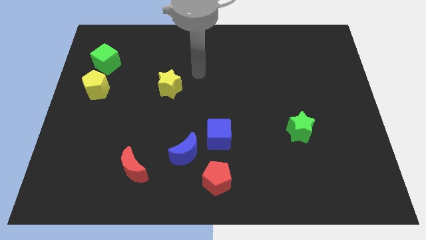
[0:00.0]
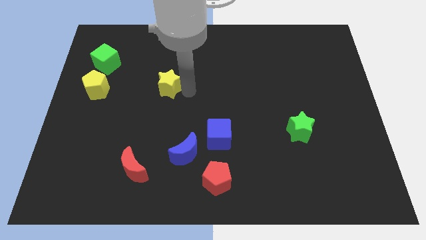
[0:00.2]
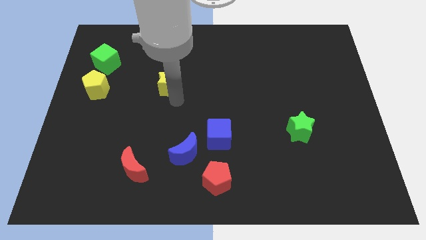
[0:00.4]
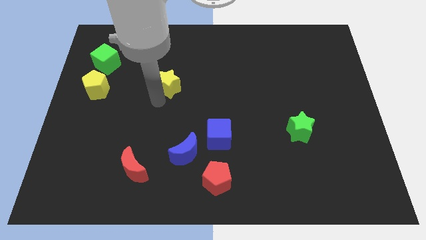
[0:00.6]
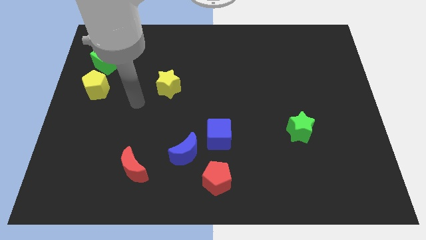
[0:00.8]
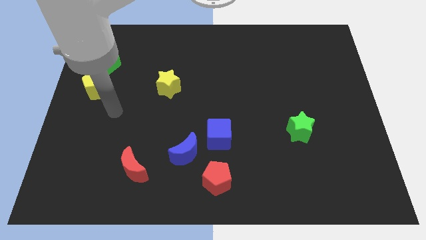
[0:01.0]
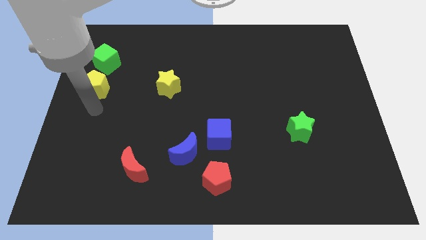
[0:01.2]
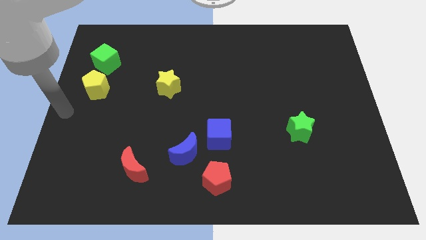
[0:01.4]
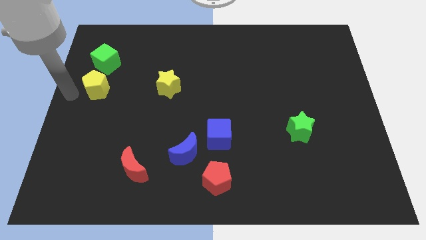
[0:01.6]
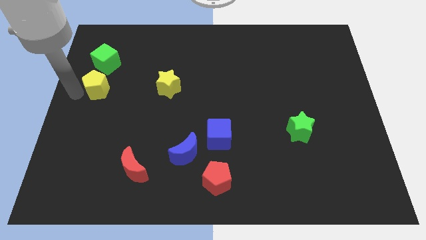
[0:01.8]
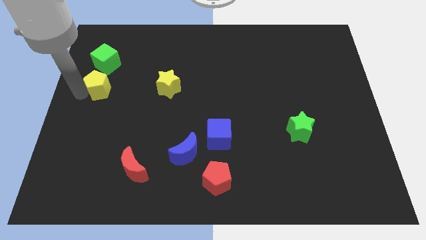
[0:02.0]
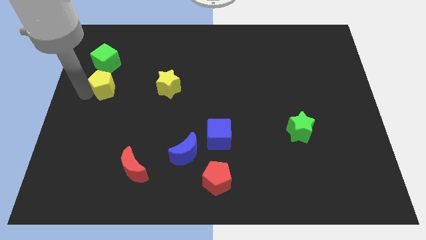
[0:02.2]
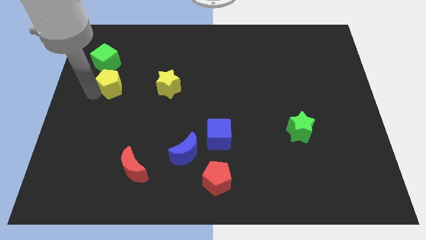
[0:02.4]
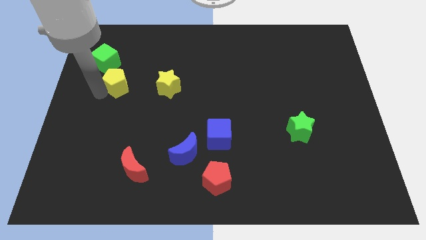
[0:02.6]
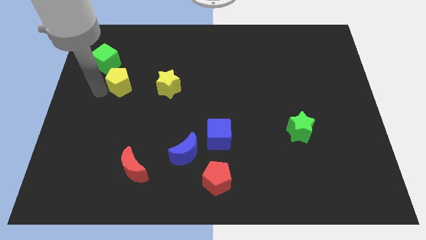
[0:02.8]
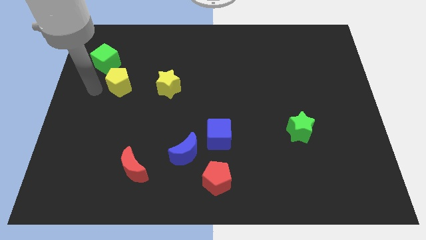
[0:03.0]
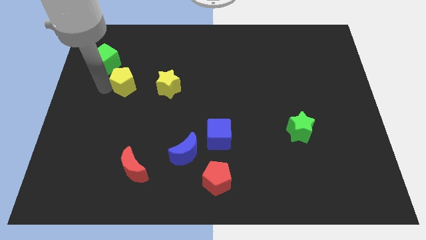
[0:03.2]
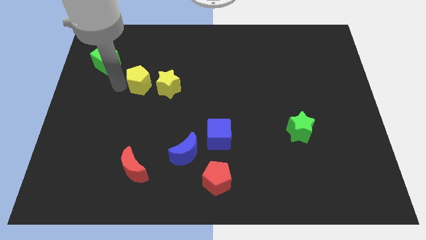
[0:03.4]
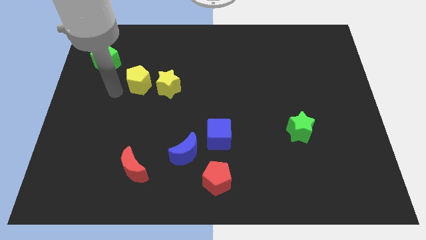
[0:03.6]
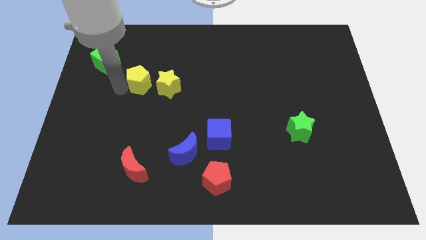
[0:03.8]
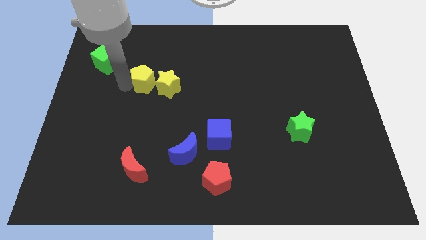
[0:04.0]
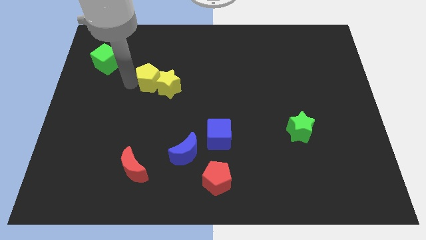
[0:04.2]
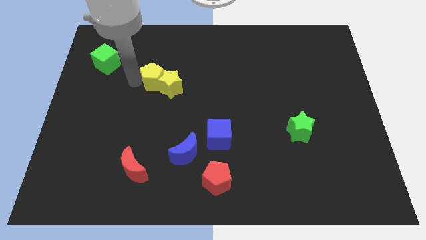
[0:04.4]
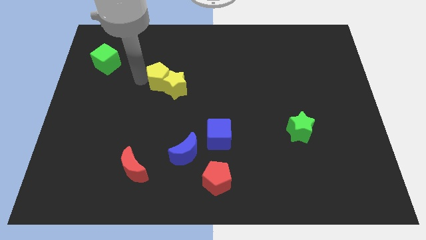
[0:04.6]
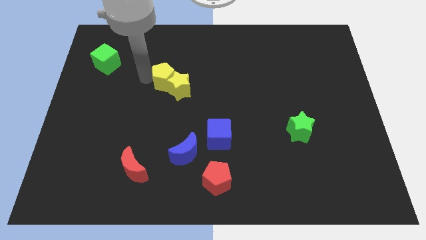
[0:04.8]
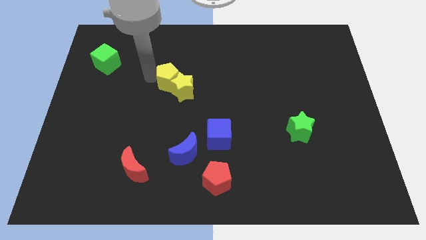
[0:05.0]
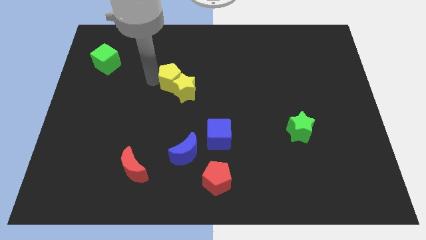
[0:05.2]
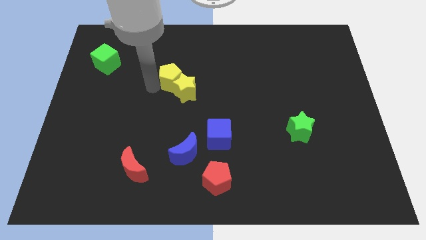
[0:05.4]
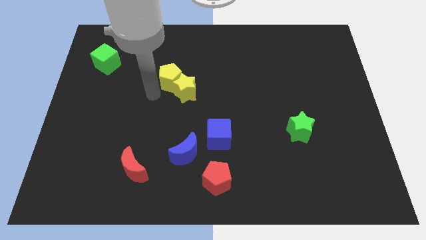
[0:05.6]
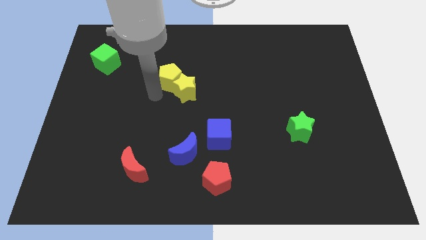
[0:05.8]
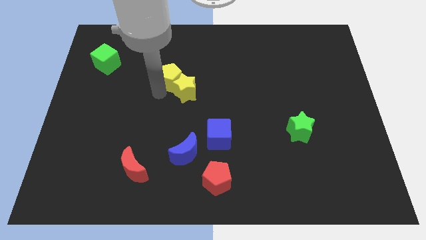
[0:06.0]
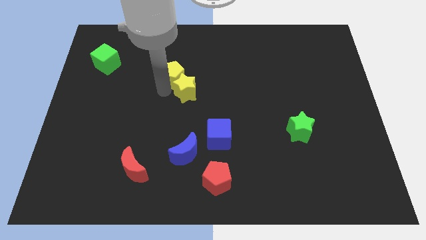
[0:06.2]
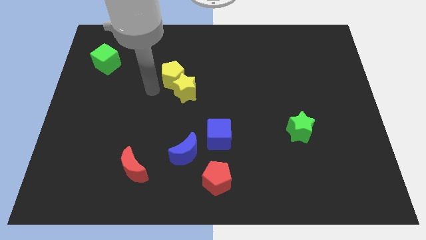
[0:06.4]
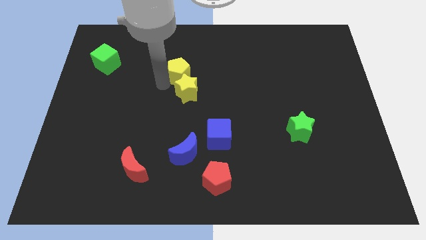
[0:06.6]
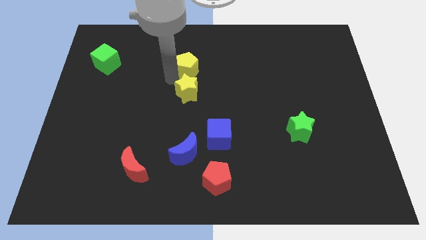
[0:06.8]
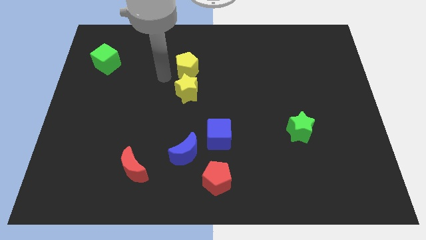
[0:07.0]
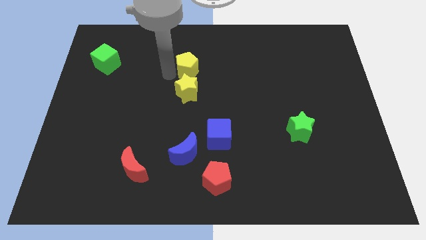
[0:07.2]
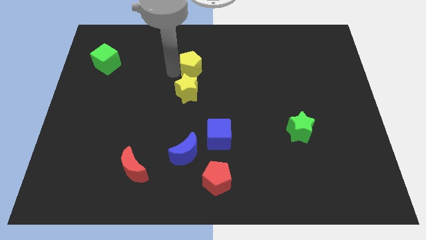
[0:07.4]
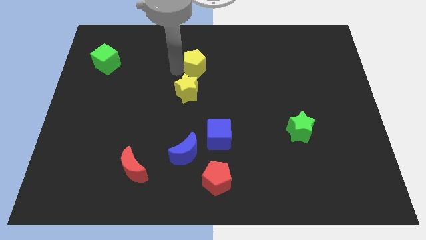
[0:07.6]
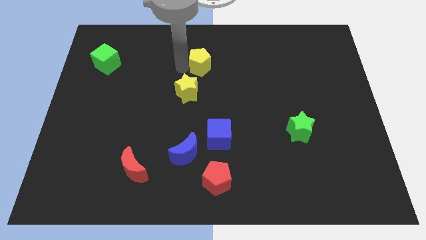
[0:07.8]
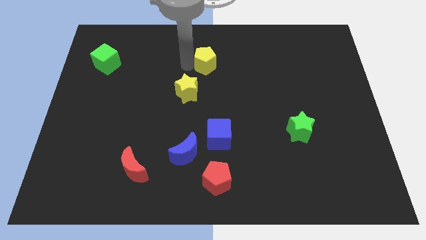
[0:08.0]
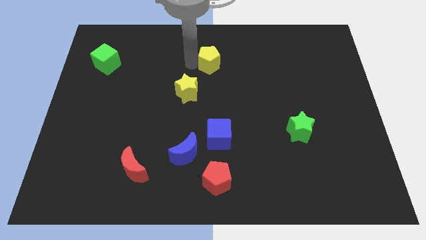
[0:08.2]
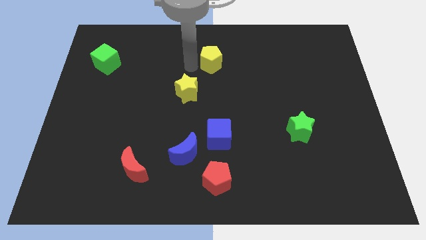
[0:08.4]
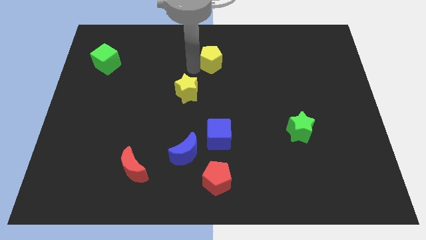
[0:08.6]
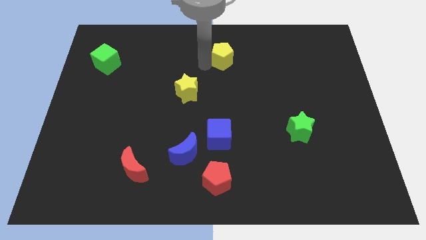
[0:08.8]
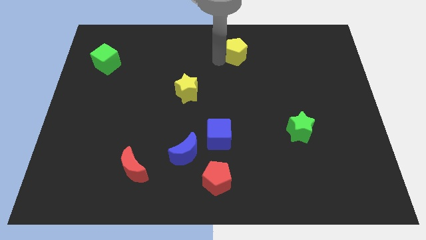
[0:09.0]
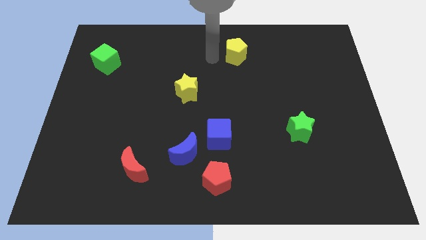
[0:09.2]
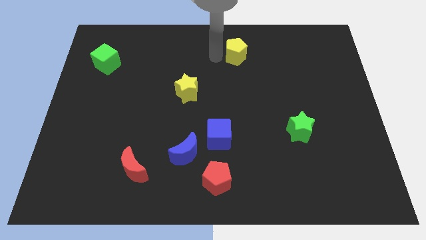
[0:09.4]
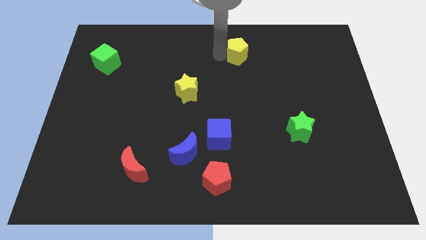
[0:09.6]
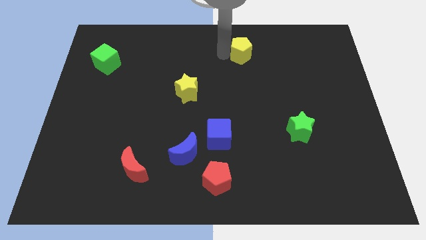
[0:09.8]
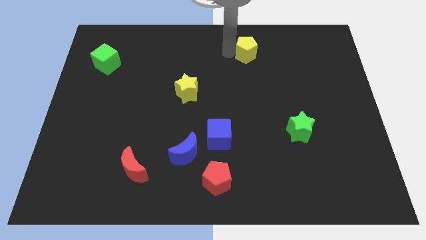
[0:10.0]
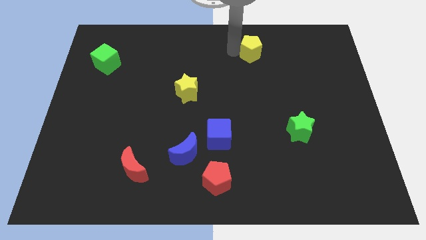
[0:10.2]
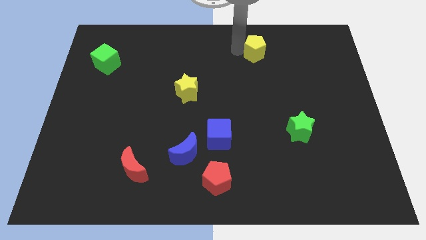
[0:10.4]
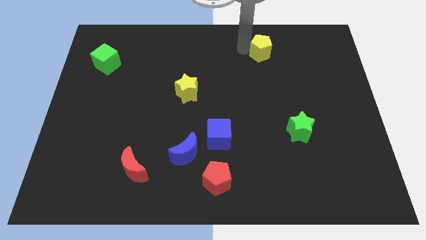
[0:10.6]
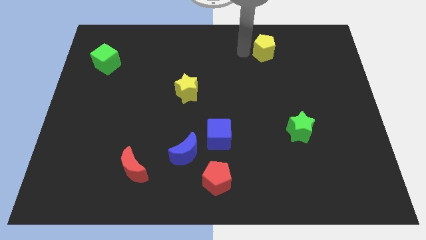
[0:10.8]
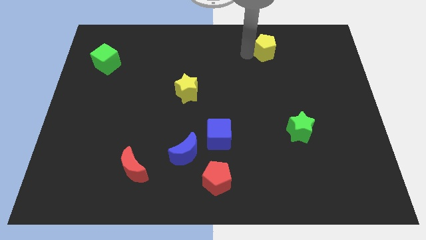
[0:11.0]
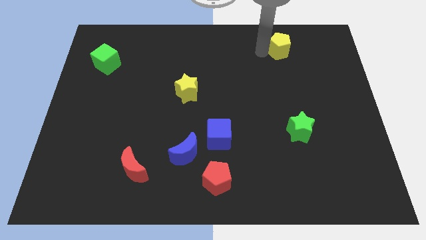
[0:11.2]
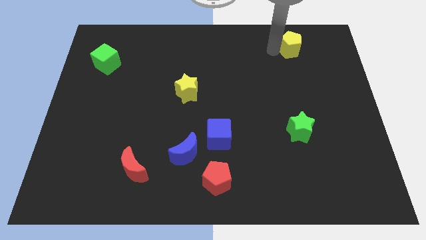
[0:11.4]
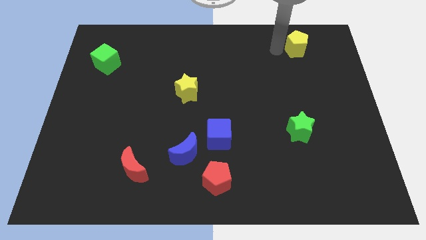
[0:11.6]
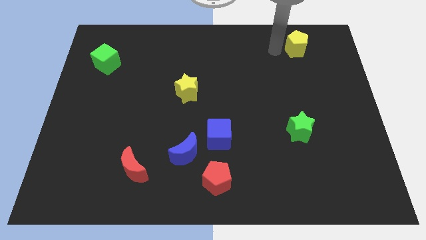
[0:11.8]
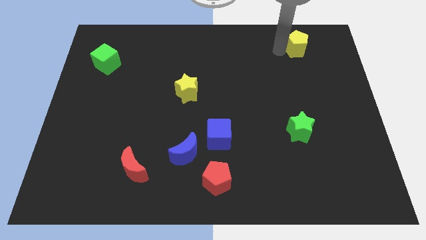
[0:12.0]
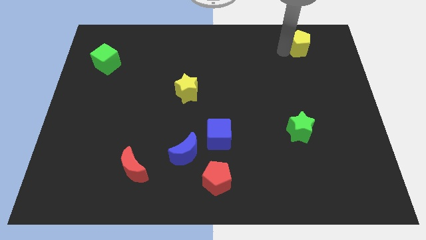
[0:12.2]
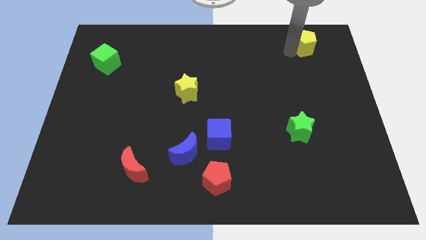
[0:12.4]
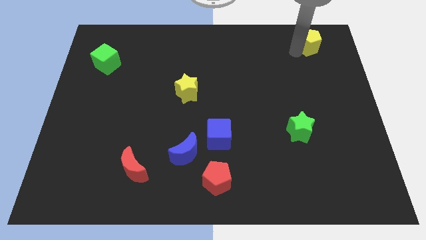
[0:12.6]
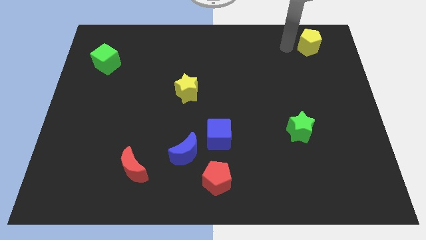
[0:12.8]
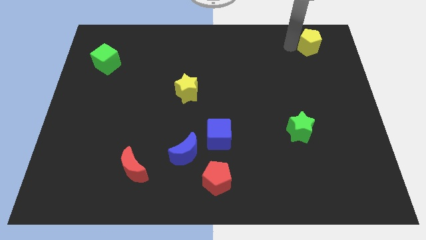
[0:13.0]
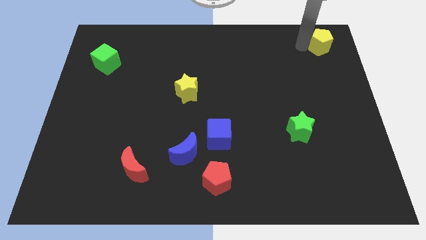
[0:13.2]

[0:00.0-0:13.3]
push the yellow pentagon to the top right corner

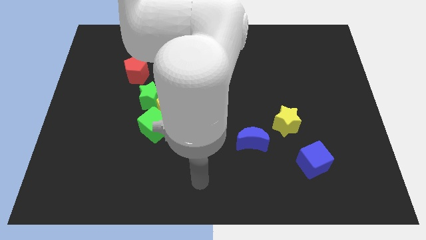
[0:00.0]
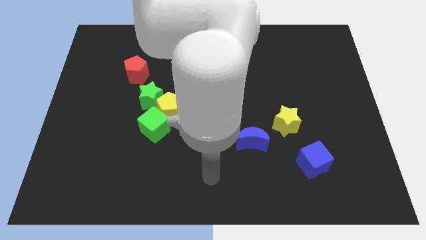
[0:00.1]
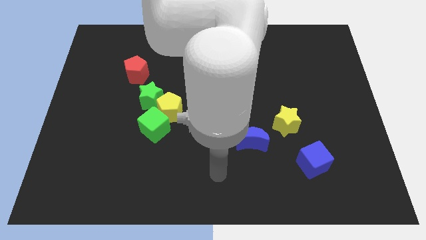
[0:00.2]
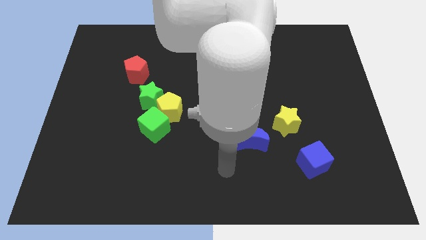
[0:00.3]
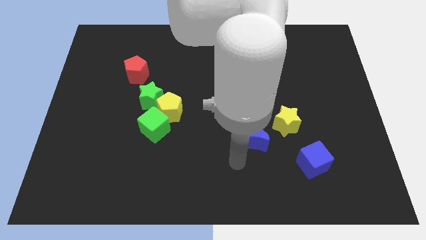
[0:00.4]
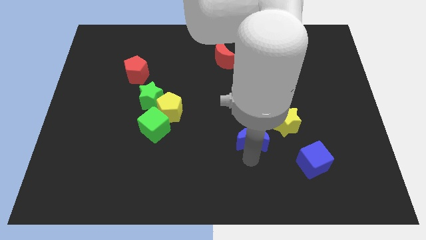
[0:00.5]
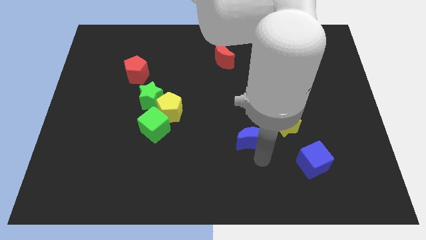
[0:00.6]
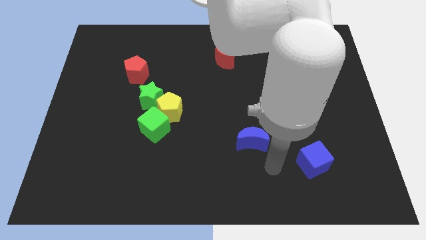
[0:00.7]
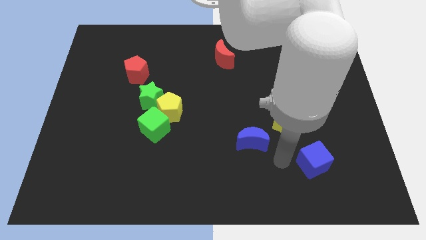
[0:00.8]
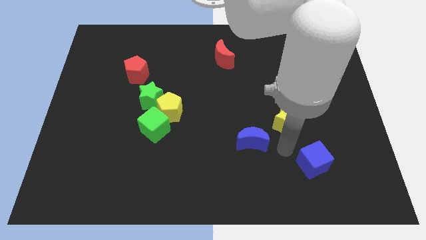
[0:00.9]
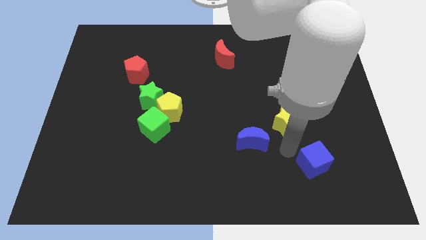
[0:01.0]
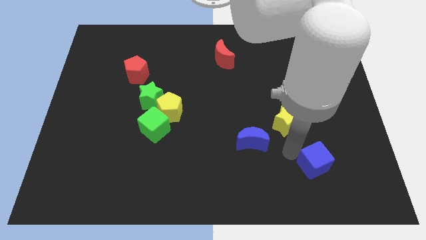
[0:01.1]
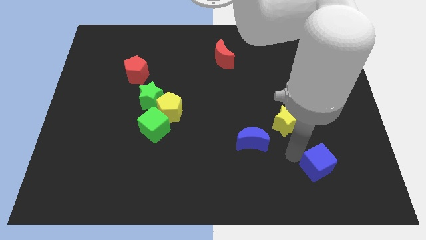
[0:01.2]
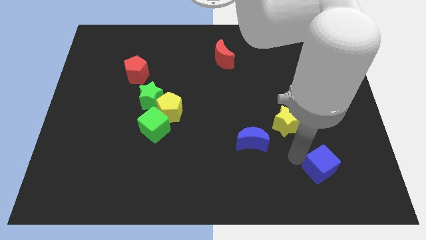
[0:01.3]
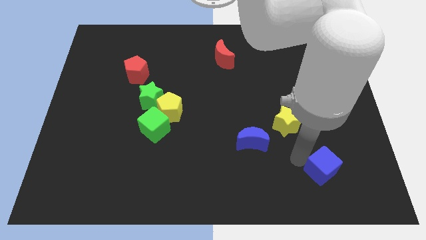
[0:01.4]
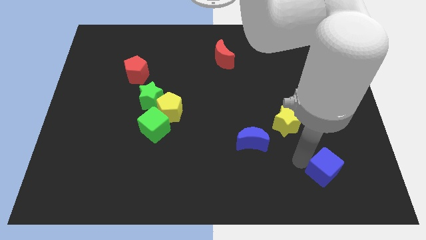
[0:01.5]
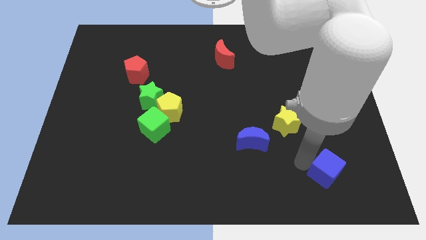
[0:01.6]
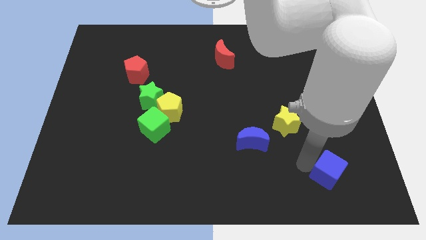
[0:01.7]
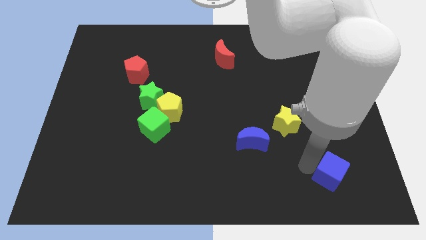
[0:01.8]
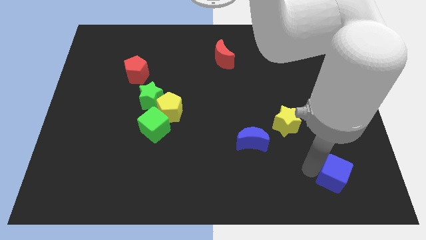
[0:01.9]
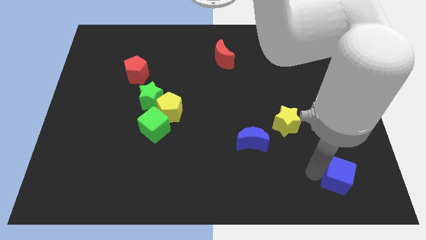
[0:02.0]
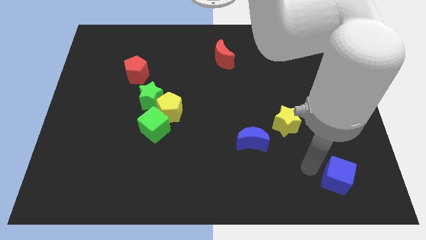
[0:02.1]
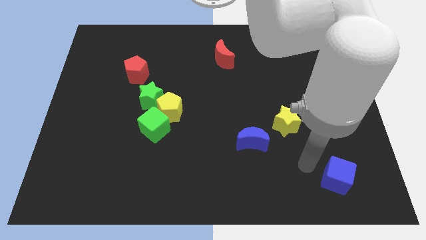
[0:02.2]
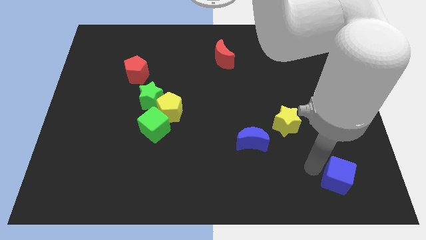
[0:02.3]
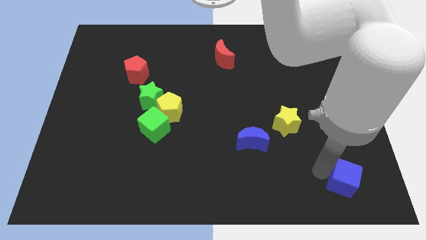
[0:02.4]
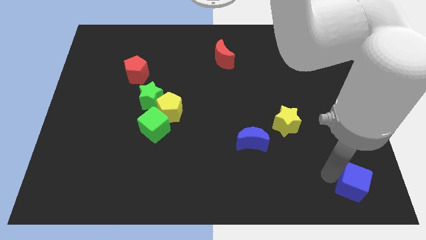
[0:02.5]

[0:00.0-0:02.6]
move the blue cube to the lower right corner
